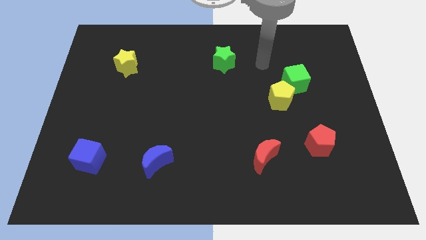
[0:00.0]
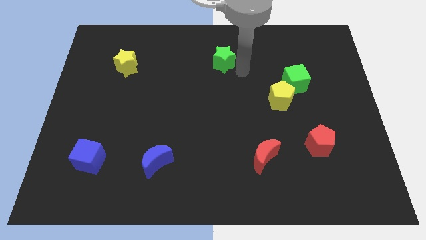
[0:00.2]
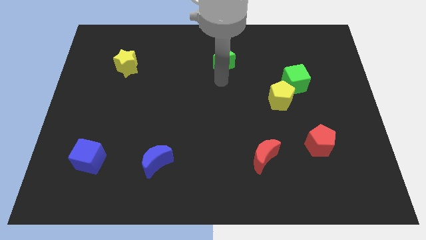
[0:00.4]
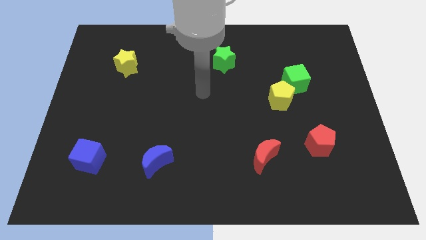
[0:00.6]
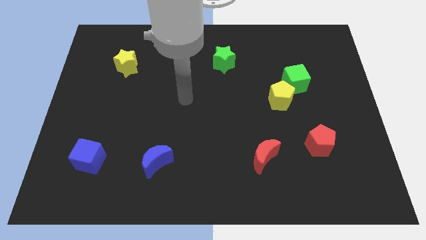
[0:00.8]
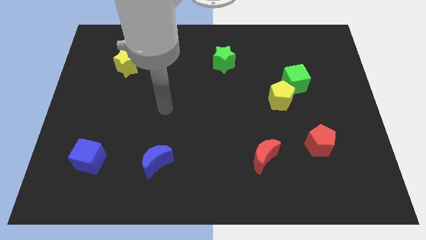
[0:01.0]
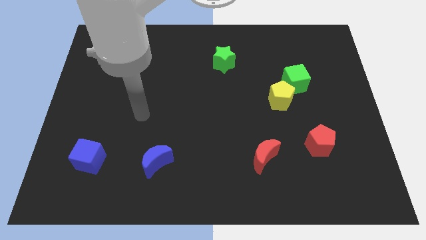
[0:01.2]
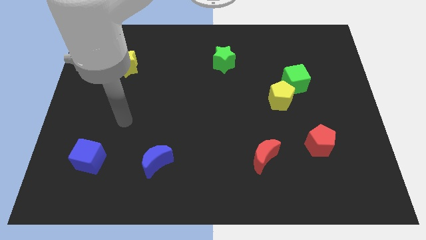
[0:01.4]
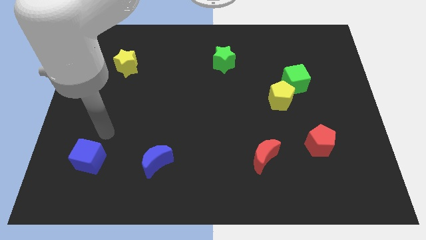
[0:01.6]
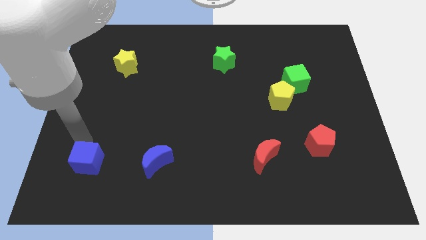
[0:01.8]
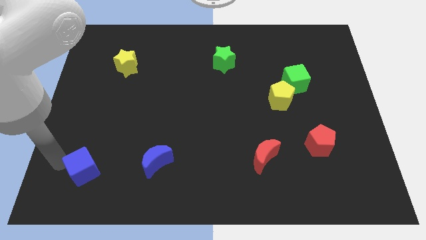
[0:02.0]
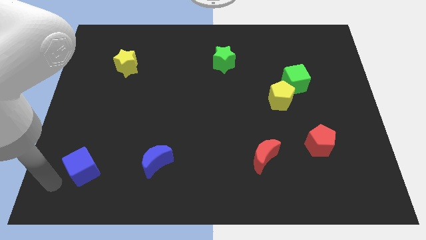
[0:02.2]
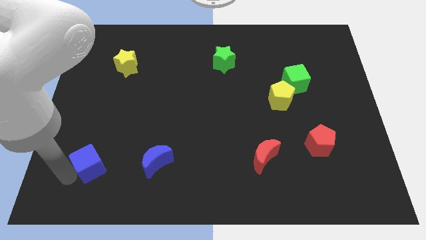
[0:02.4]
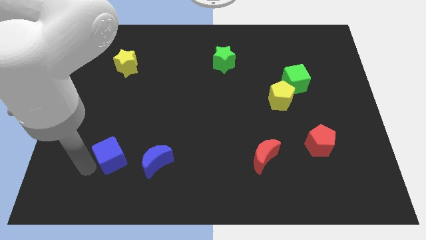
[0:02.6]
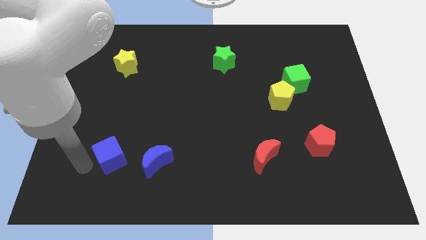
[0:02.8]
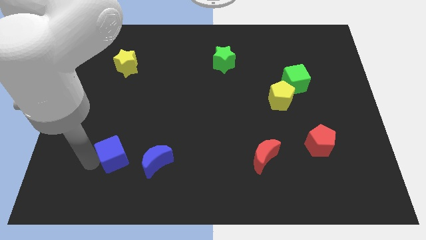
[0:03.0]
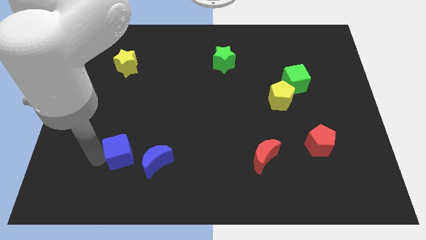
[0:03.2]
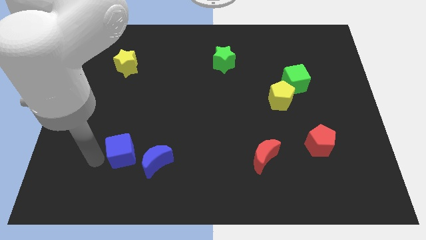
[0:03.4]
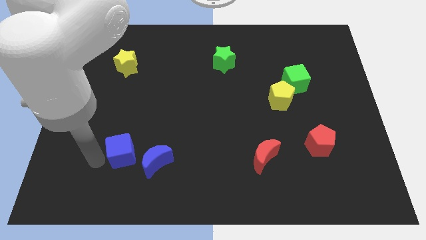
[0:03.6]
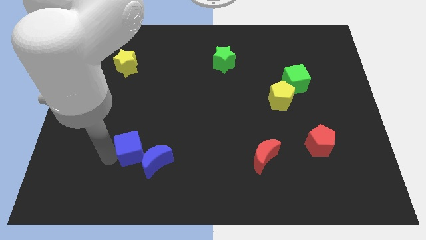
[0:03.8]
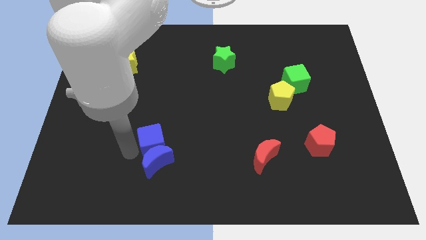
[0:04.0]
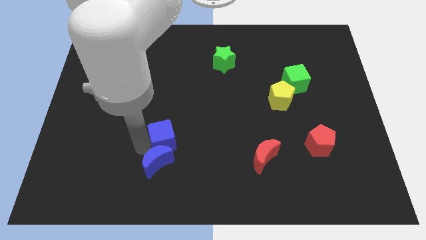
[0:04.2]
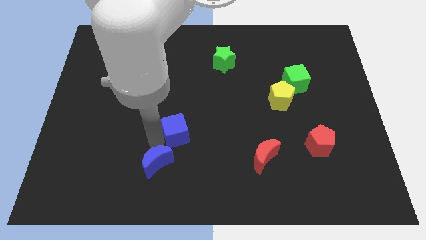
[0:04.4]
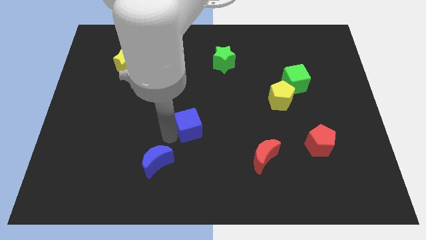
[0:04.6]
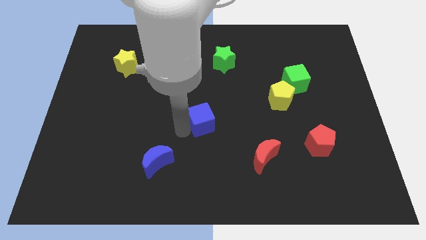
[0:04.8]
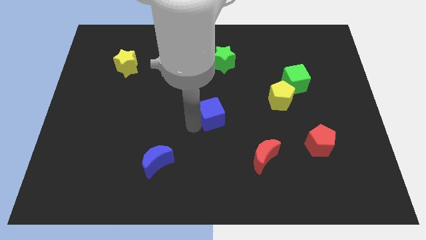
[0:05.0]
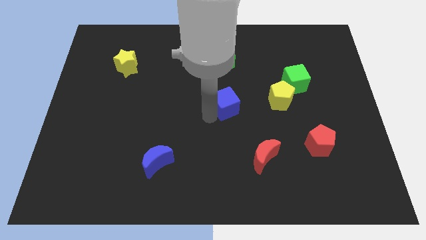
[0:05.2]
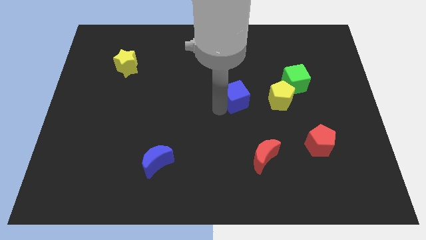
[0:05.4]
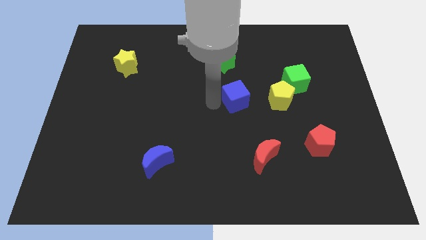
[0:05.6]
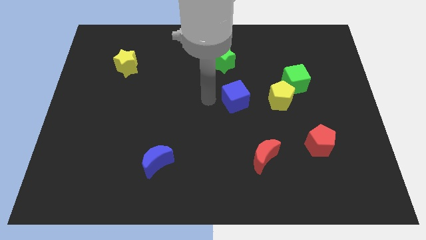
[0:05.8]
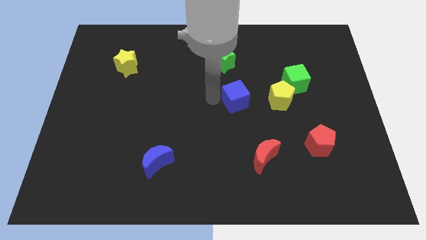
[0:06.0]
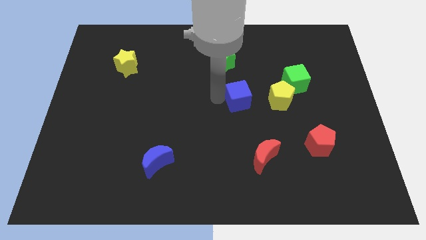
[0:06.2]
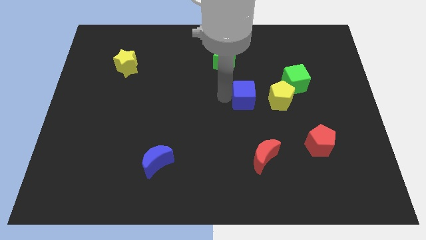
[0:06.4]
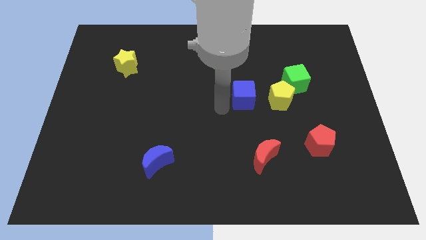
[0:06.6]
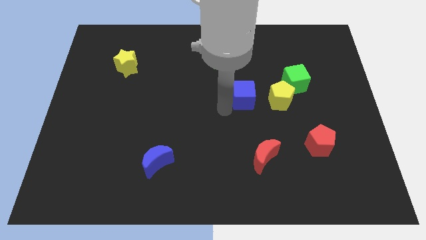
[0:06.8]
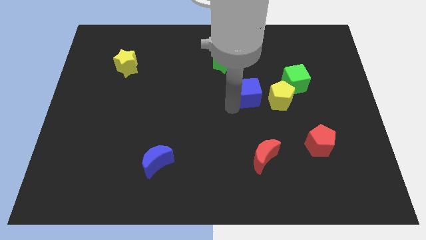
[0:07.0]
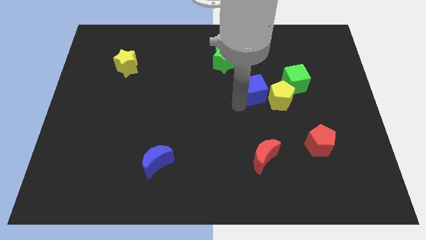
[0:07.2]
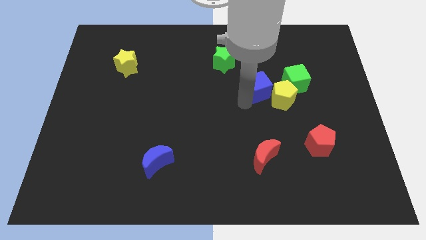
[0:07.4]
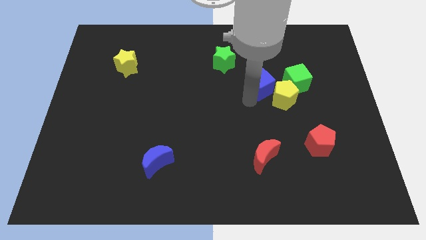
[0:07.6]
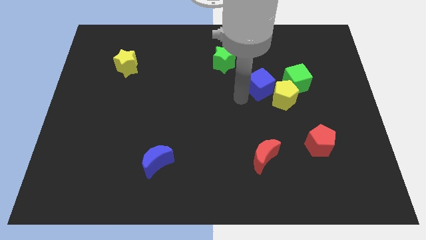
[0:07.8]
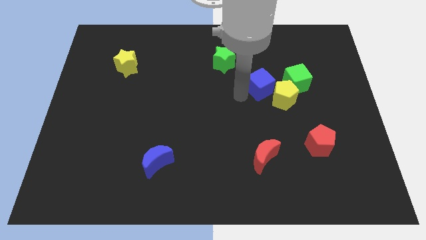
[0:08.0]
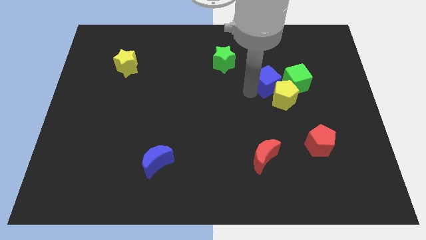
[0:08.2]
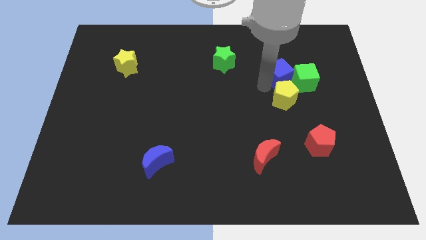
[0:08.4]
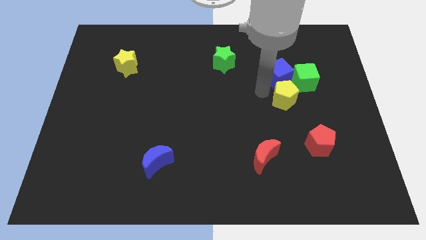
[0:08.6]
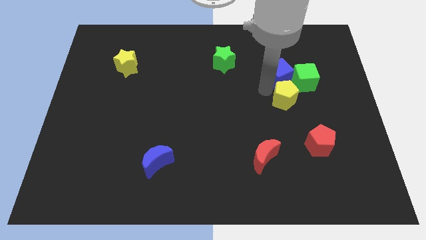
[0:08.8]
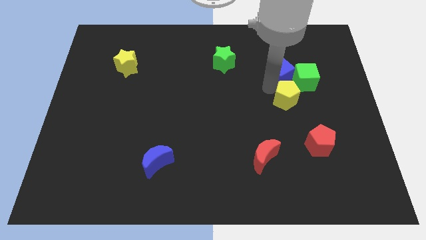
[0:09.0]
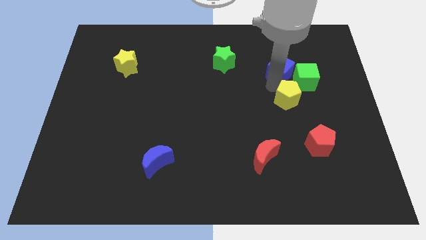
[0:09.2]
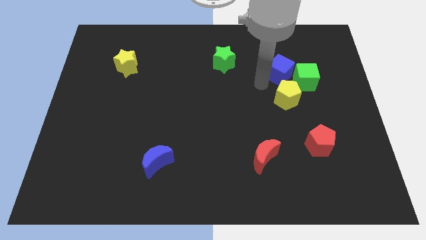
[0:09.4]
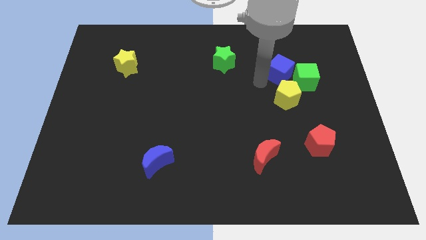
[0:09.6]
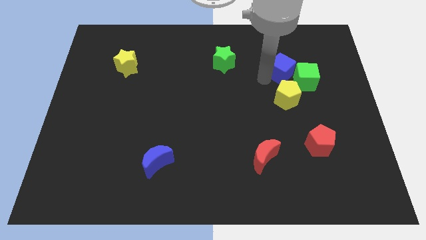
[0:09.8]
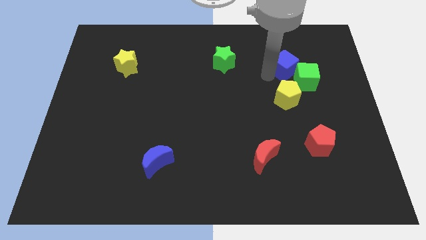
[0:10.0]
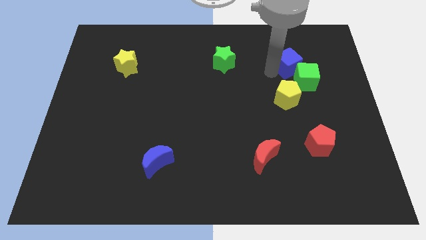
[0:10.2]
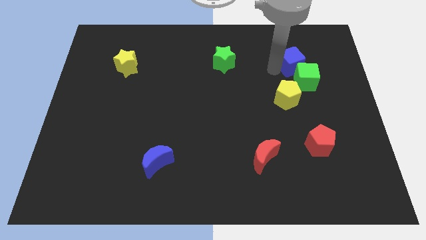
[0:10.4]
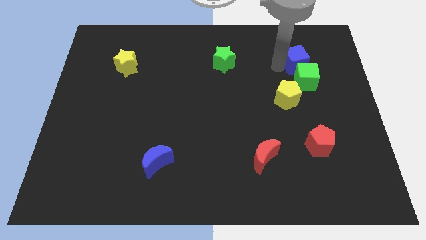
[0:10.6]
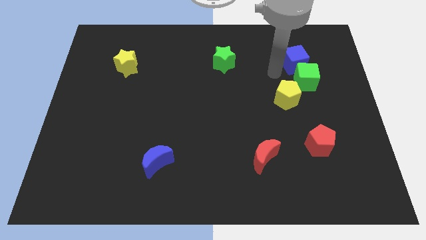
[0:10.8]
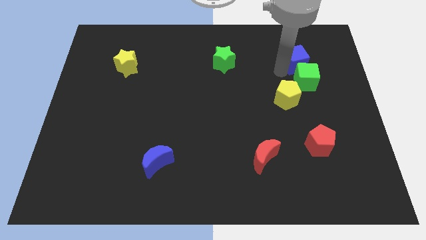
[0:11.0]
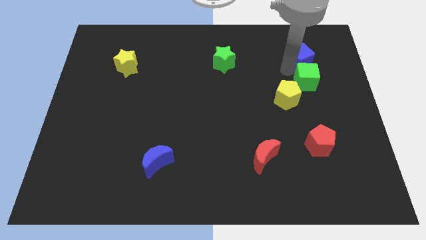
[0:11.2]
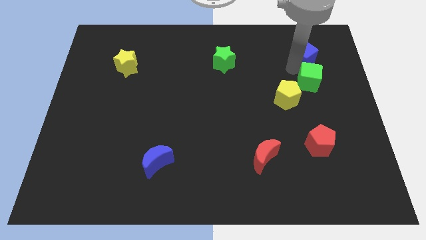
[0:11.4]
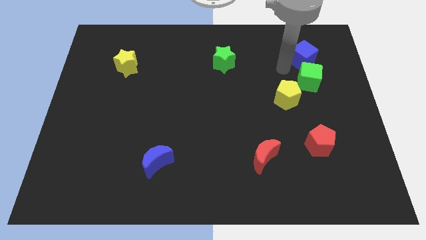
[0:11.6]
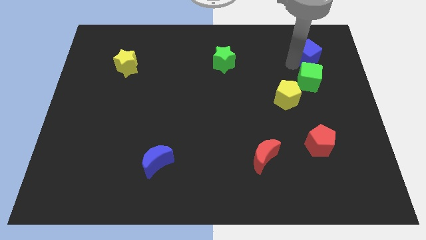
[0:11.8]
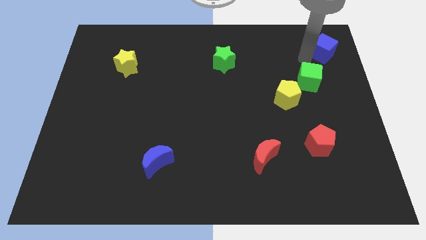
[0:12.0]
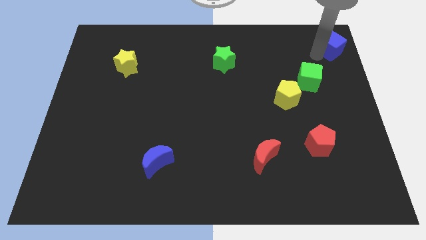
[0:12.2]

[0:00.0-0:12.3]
move the blue cube to the top right corner
